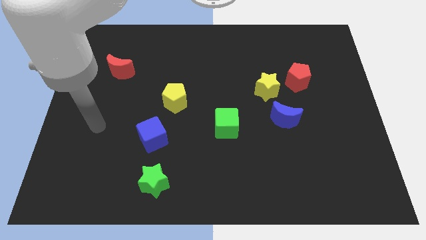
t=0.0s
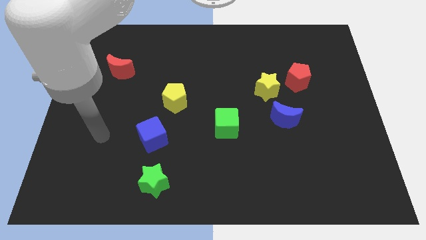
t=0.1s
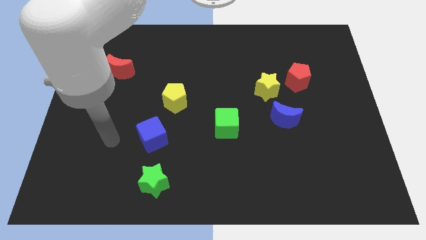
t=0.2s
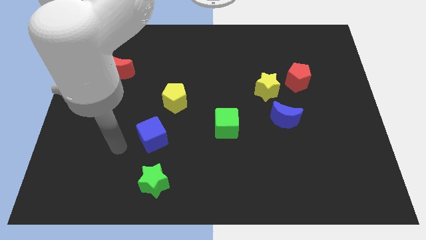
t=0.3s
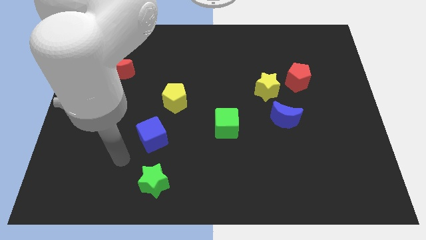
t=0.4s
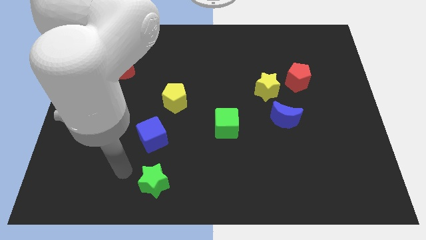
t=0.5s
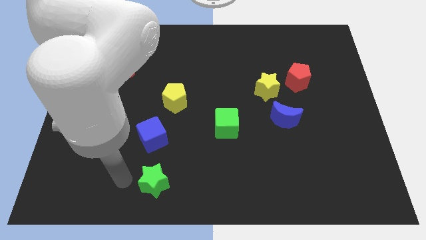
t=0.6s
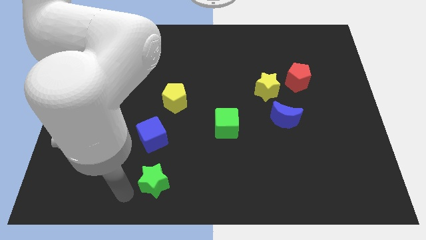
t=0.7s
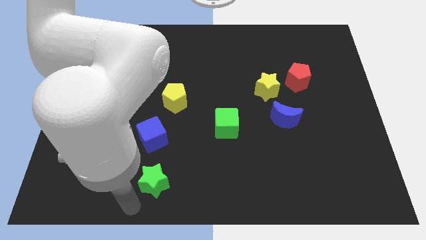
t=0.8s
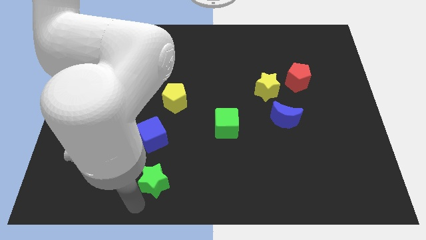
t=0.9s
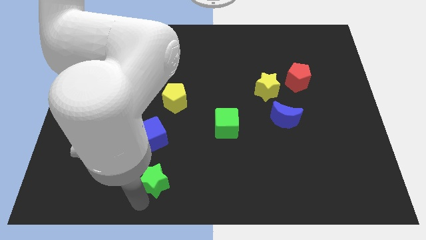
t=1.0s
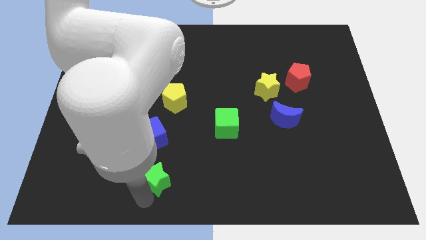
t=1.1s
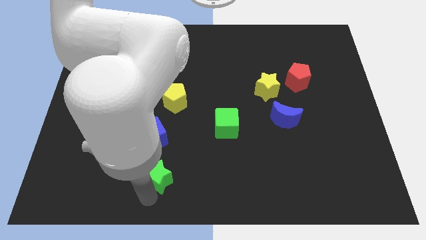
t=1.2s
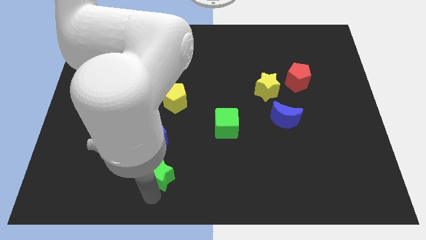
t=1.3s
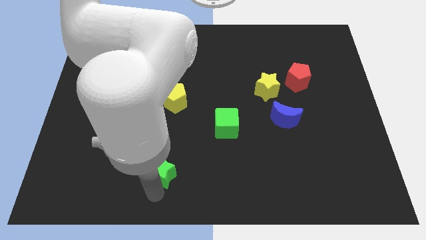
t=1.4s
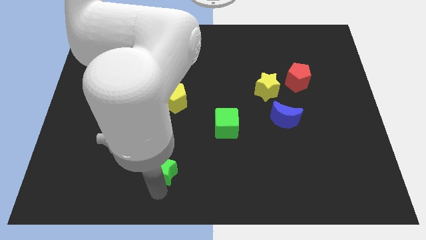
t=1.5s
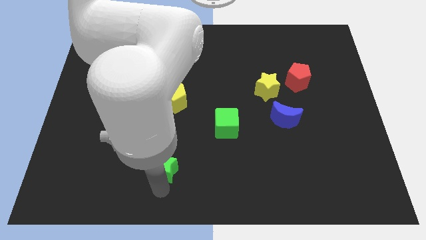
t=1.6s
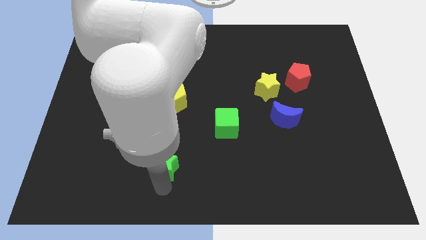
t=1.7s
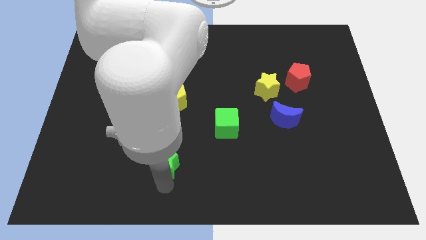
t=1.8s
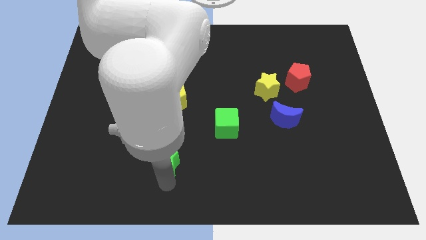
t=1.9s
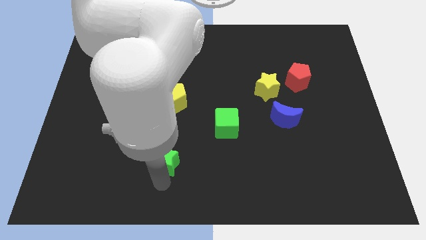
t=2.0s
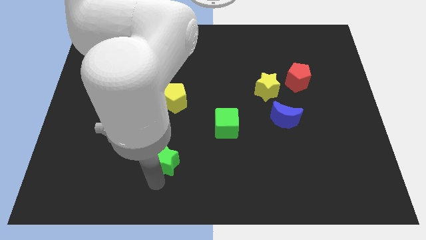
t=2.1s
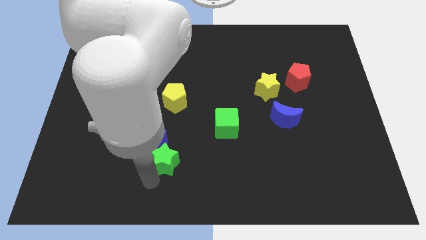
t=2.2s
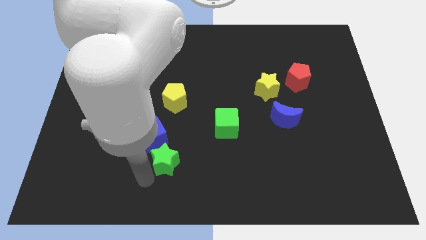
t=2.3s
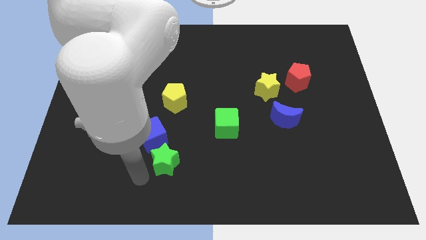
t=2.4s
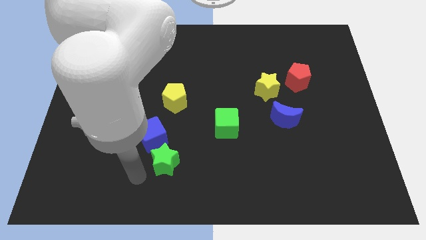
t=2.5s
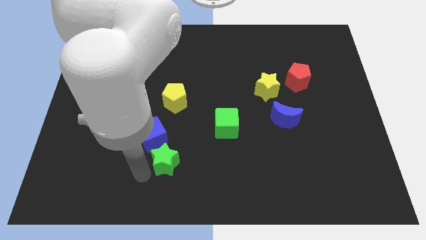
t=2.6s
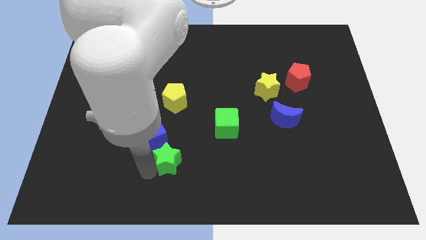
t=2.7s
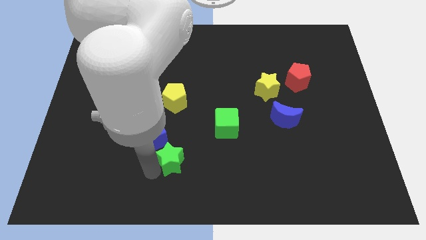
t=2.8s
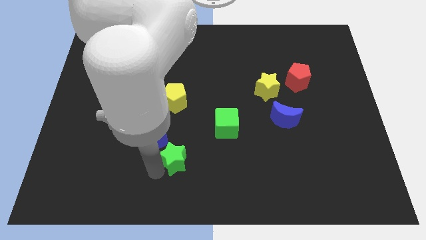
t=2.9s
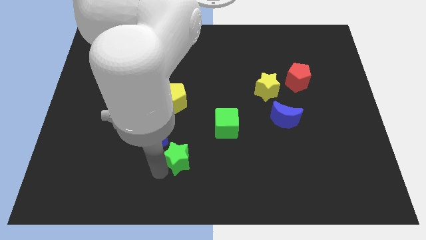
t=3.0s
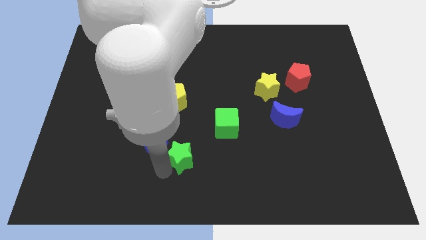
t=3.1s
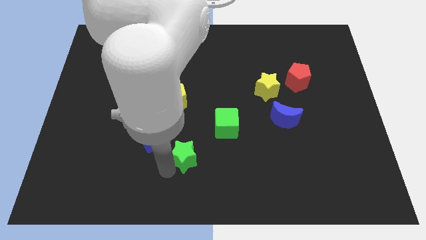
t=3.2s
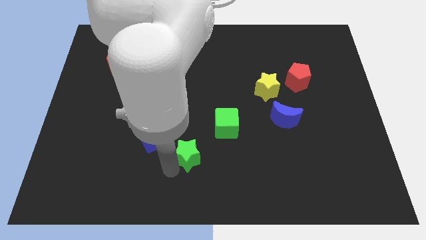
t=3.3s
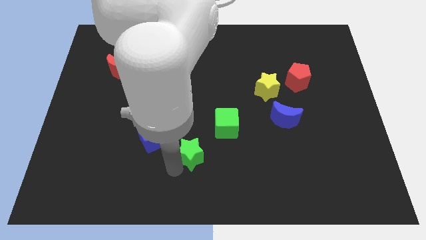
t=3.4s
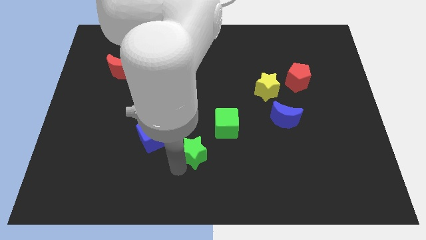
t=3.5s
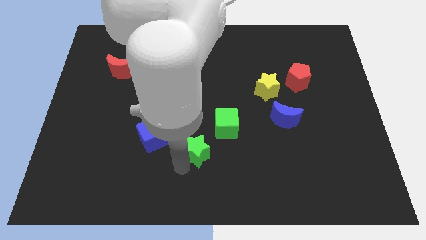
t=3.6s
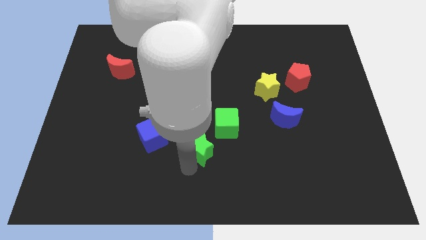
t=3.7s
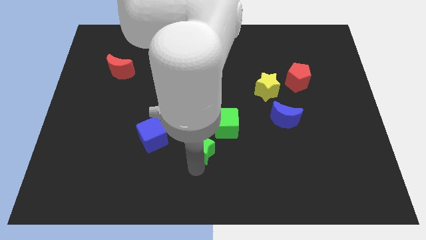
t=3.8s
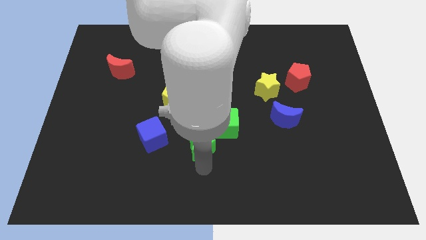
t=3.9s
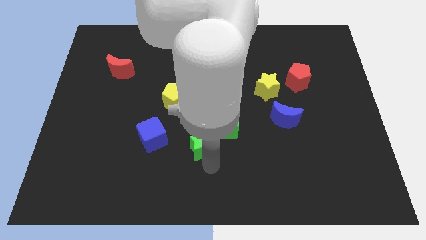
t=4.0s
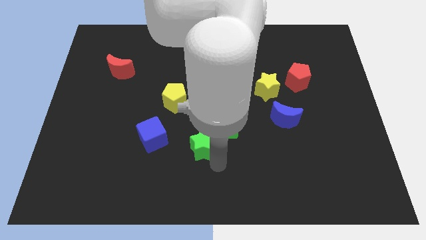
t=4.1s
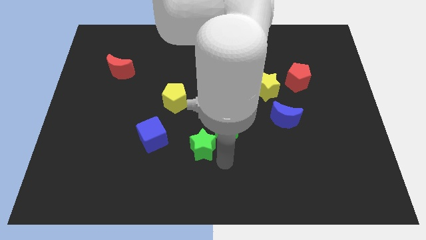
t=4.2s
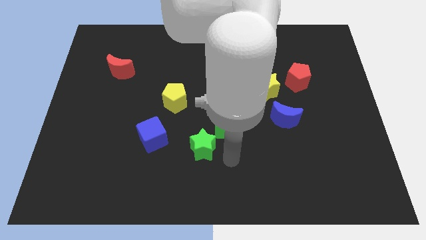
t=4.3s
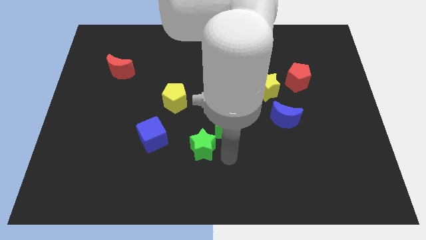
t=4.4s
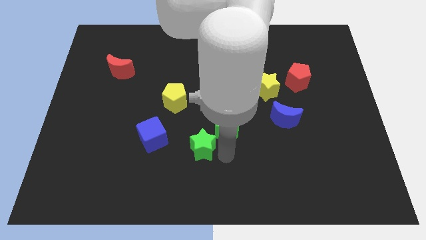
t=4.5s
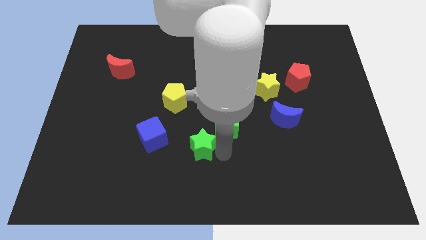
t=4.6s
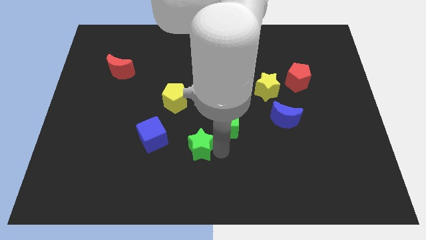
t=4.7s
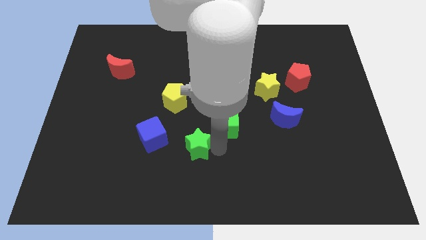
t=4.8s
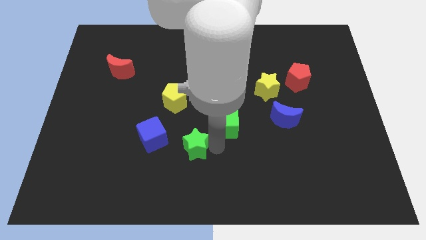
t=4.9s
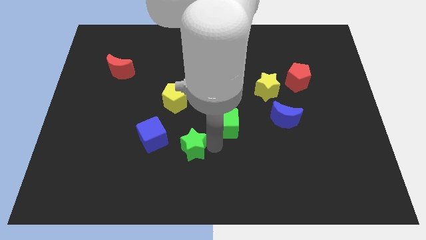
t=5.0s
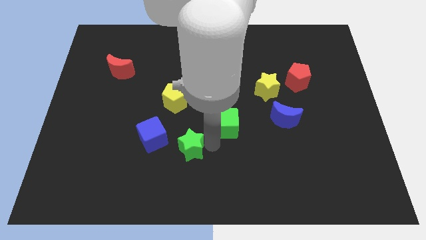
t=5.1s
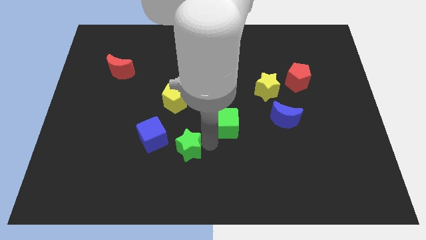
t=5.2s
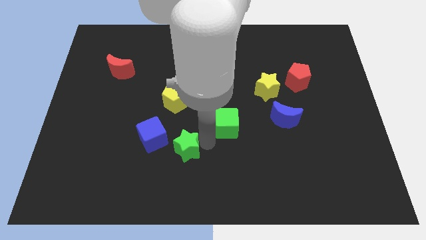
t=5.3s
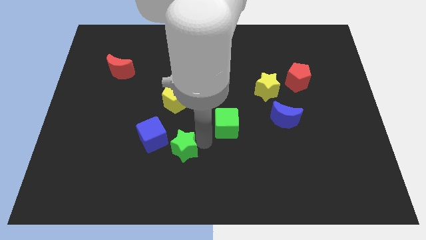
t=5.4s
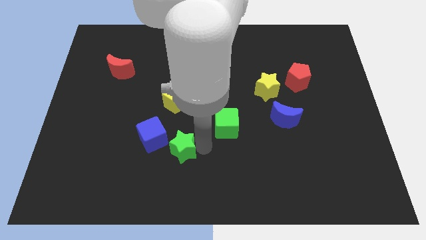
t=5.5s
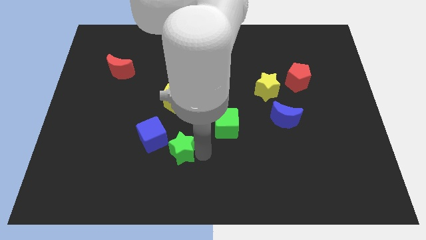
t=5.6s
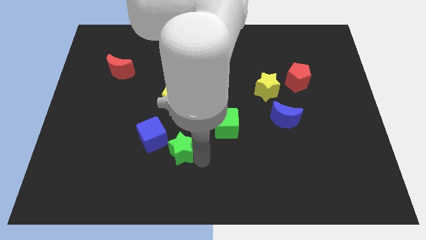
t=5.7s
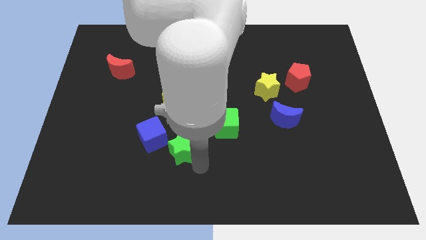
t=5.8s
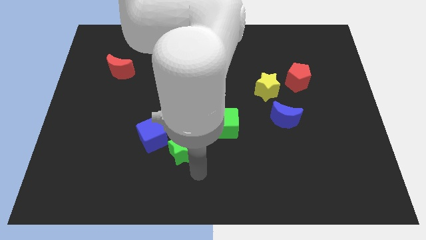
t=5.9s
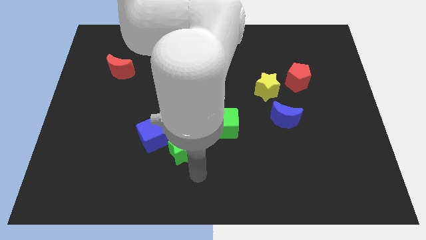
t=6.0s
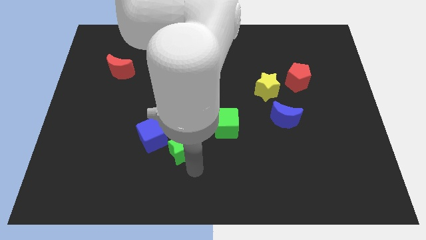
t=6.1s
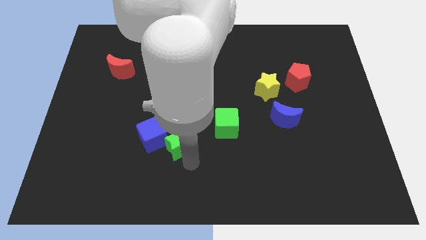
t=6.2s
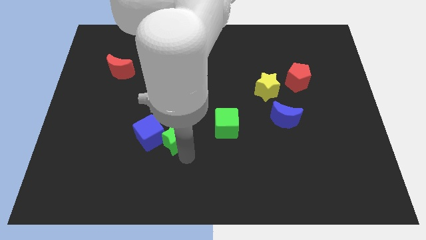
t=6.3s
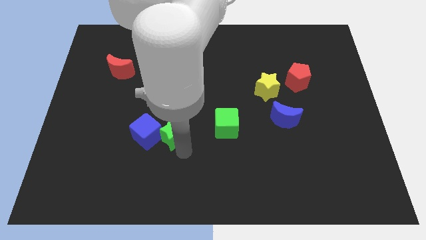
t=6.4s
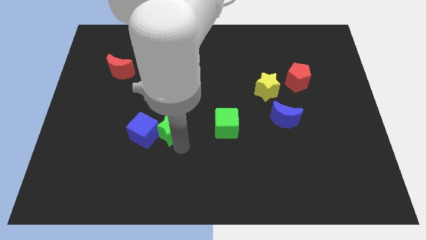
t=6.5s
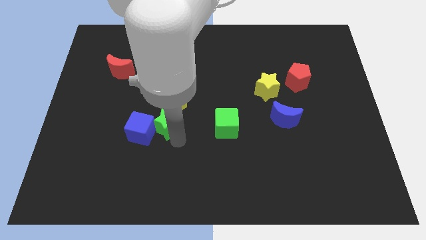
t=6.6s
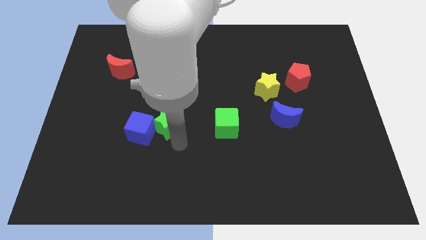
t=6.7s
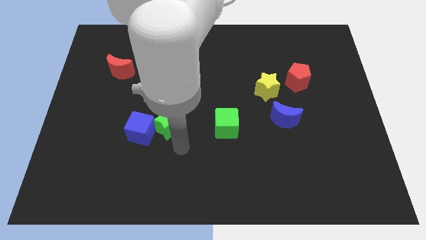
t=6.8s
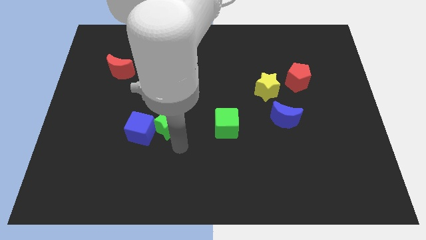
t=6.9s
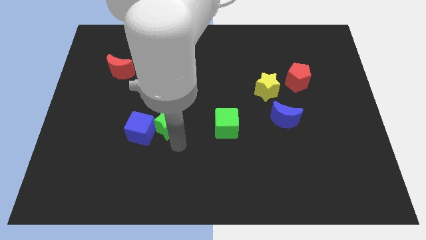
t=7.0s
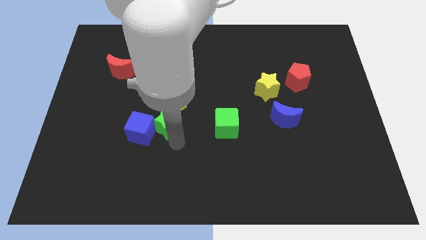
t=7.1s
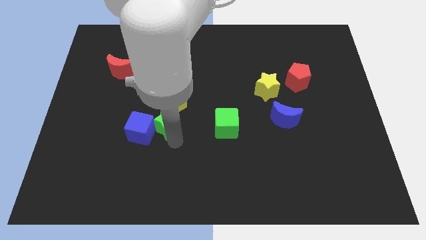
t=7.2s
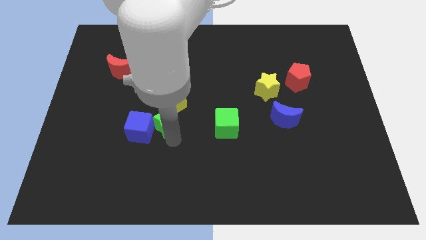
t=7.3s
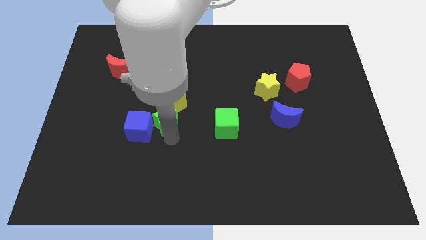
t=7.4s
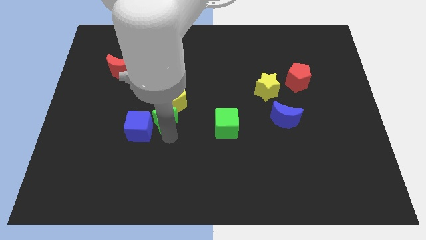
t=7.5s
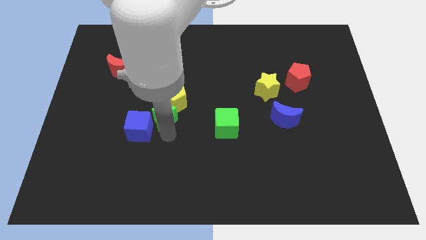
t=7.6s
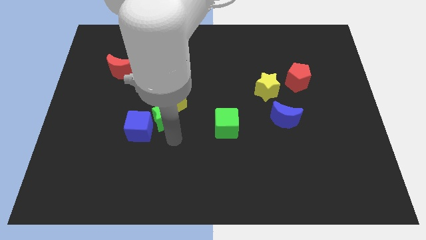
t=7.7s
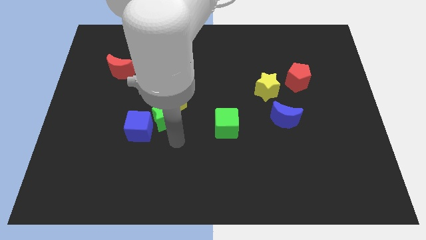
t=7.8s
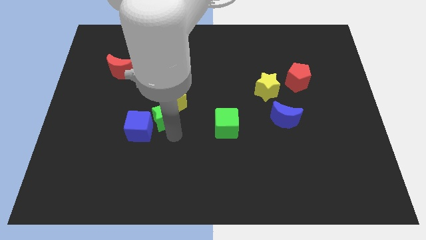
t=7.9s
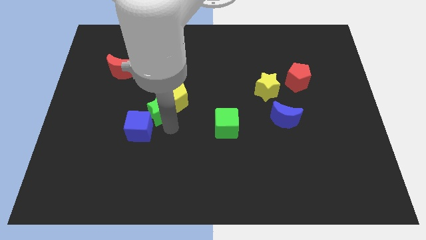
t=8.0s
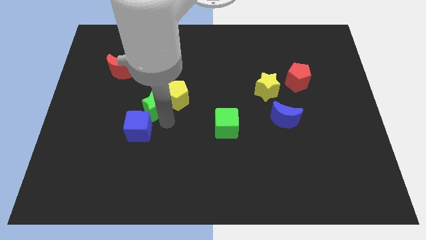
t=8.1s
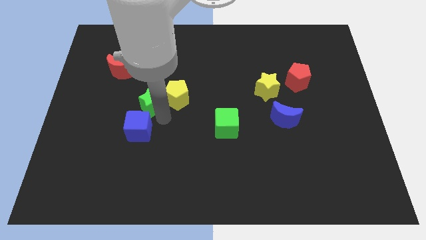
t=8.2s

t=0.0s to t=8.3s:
move the green star up
